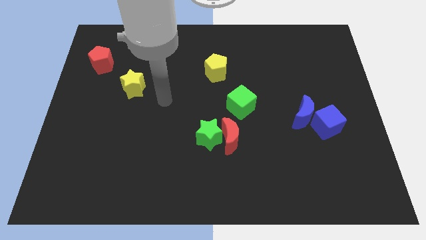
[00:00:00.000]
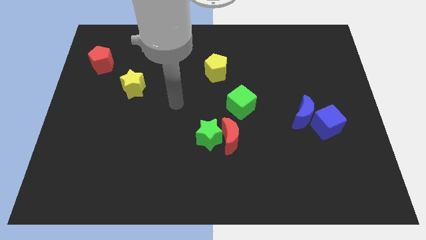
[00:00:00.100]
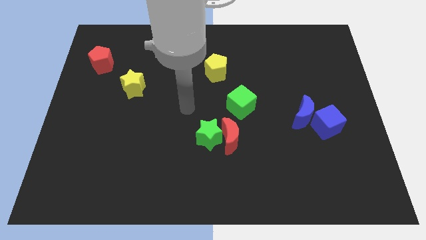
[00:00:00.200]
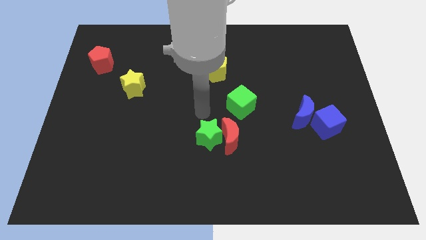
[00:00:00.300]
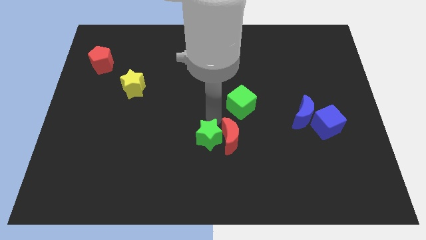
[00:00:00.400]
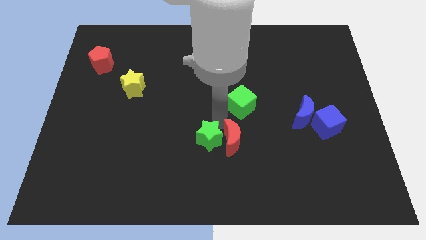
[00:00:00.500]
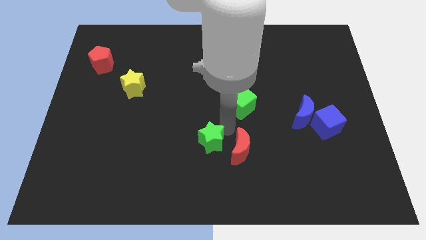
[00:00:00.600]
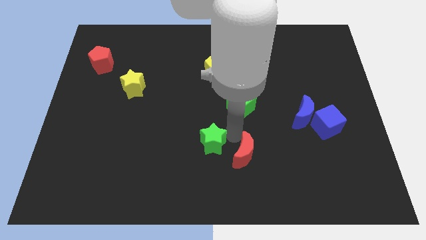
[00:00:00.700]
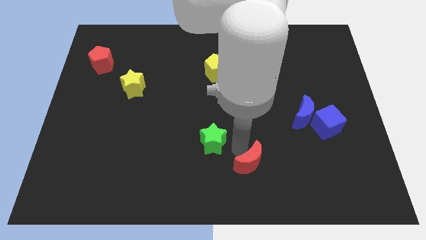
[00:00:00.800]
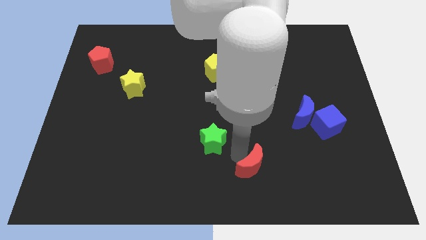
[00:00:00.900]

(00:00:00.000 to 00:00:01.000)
pull the green star apart from the red moon

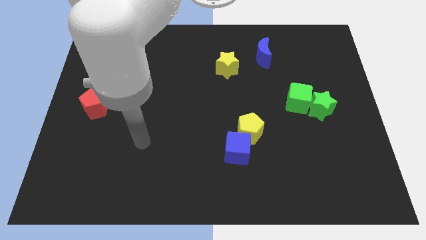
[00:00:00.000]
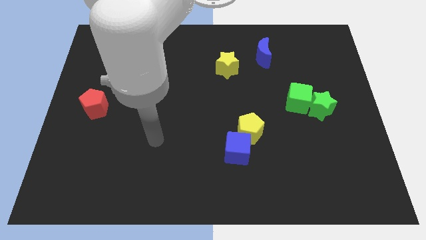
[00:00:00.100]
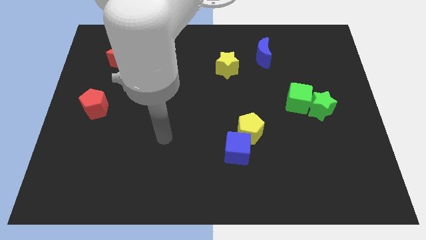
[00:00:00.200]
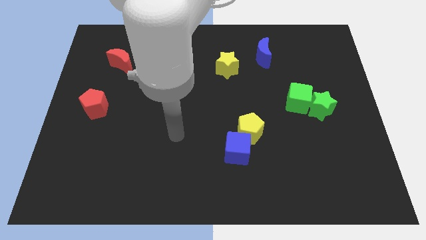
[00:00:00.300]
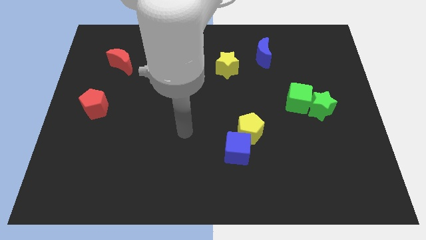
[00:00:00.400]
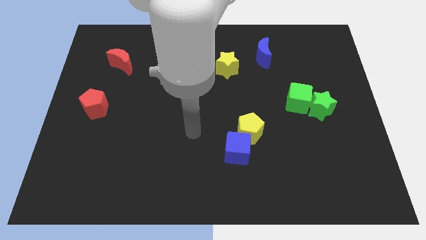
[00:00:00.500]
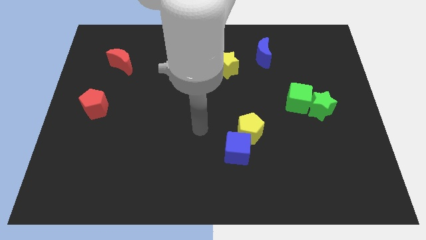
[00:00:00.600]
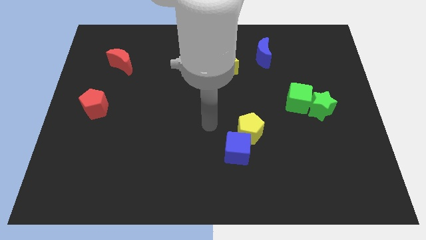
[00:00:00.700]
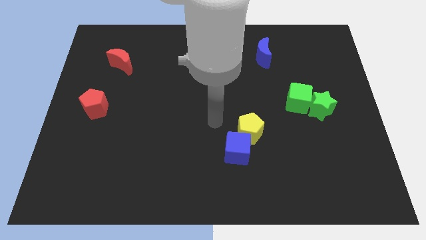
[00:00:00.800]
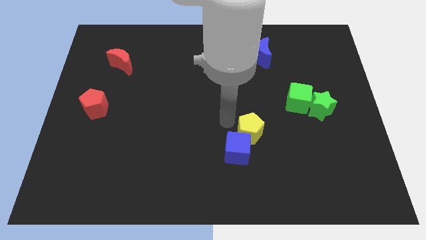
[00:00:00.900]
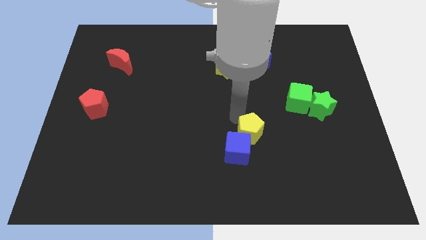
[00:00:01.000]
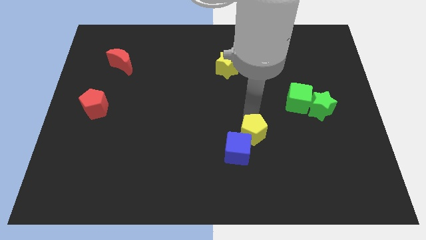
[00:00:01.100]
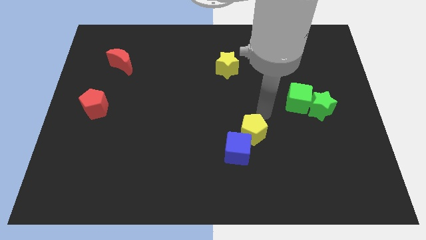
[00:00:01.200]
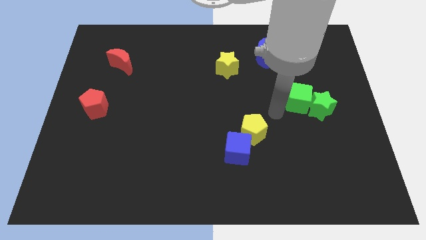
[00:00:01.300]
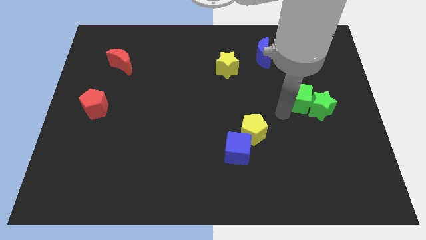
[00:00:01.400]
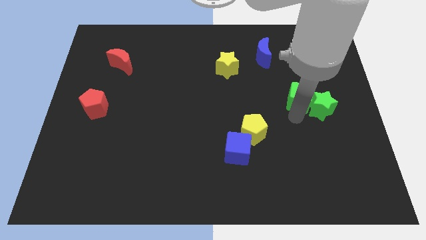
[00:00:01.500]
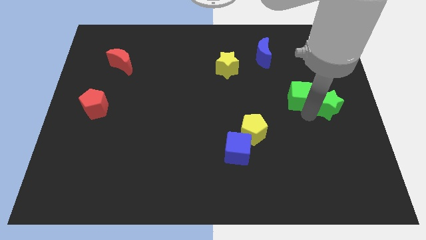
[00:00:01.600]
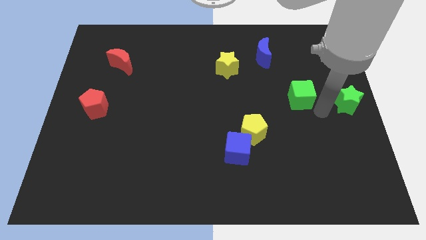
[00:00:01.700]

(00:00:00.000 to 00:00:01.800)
separate the green cube from the green star

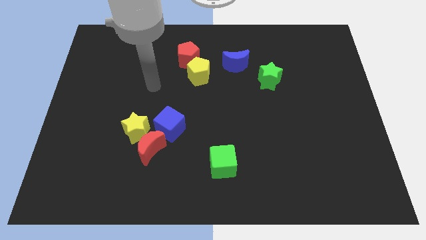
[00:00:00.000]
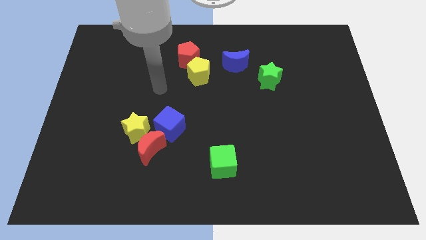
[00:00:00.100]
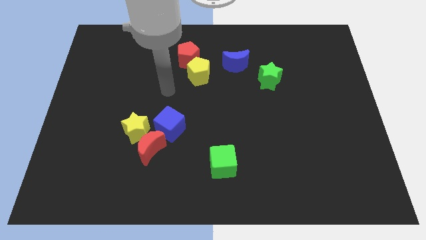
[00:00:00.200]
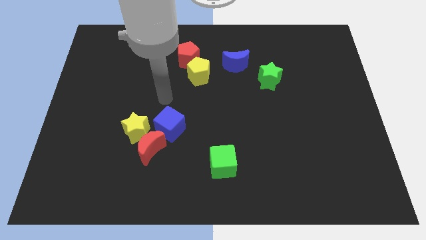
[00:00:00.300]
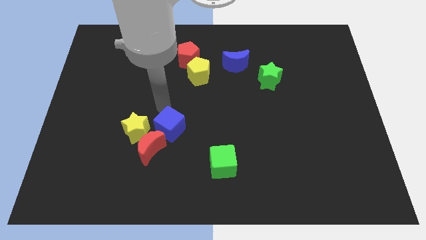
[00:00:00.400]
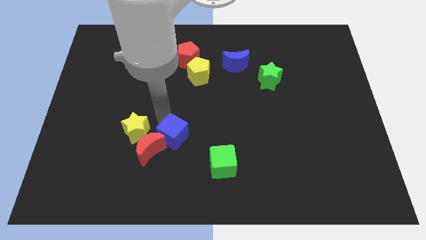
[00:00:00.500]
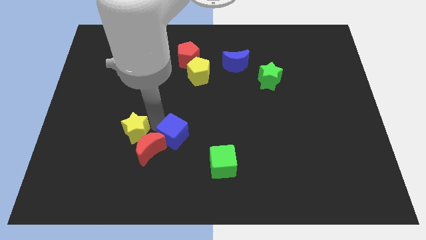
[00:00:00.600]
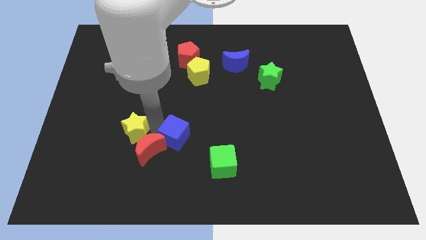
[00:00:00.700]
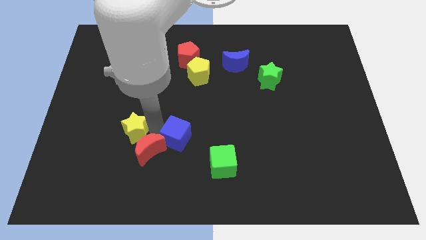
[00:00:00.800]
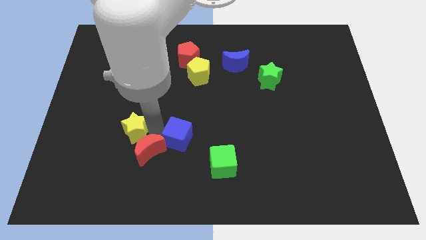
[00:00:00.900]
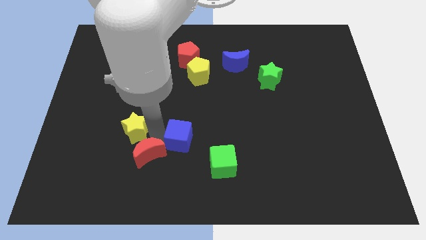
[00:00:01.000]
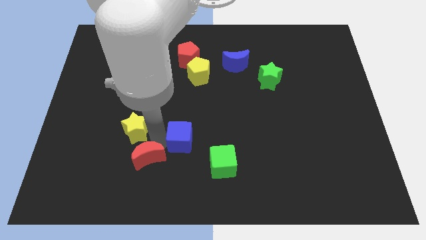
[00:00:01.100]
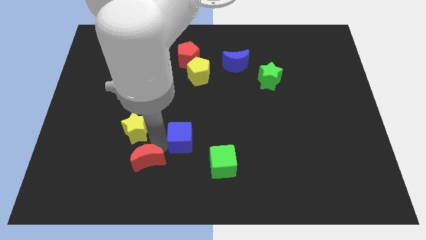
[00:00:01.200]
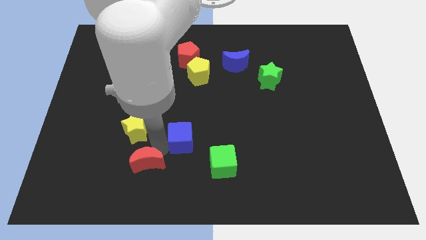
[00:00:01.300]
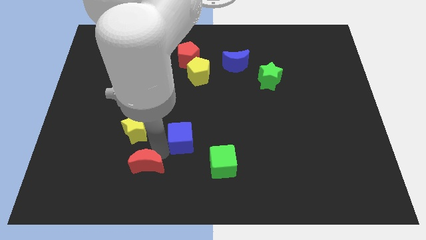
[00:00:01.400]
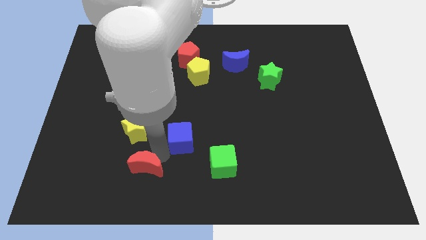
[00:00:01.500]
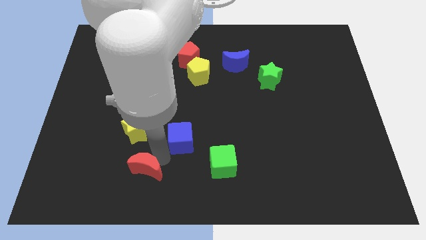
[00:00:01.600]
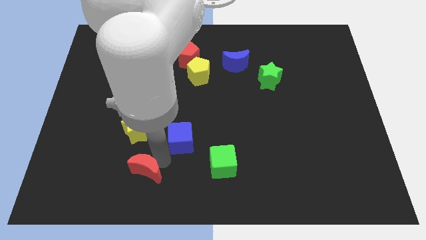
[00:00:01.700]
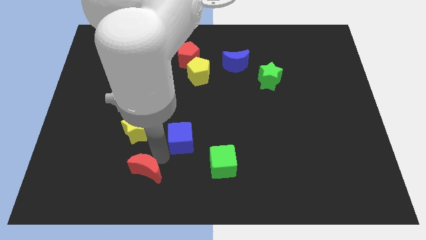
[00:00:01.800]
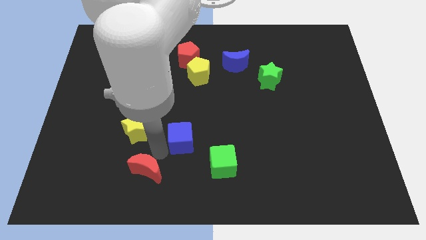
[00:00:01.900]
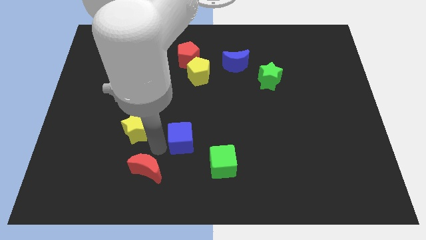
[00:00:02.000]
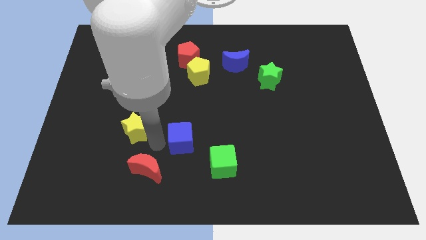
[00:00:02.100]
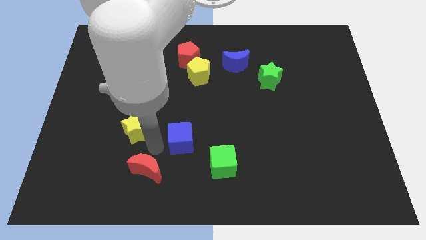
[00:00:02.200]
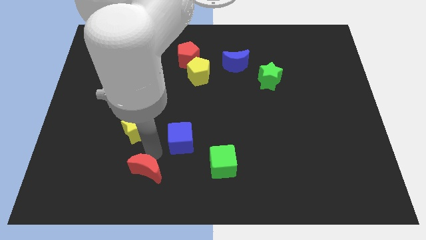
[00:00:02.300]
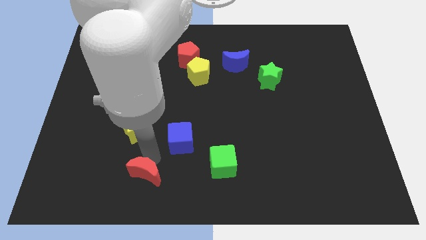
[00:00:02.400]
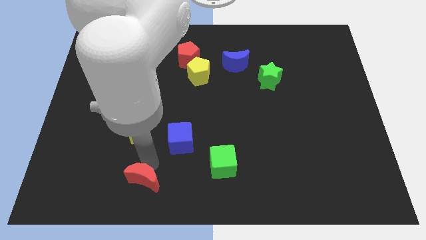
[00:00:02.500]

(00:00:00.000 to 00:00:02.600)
pull the red moon apart from the yellow star and blue cube

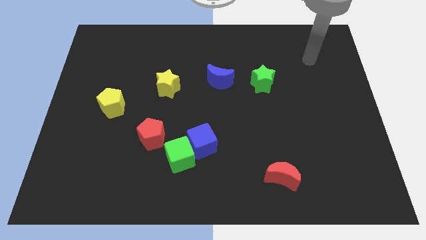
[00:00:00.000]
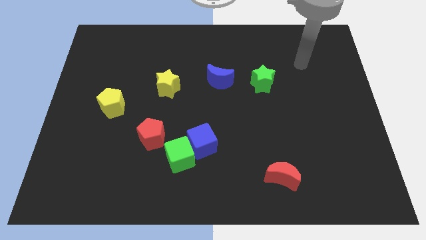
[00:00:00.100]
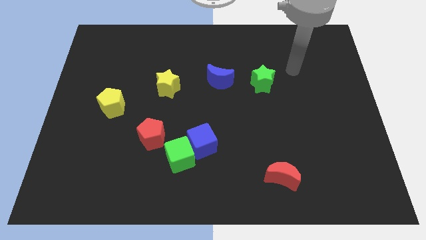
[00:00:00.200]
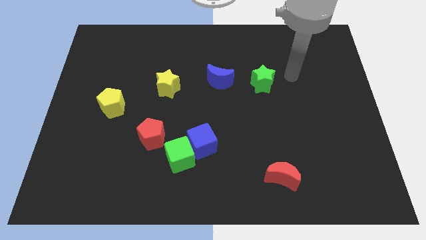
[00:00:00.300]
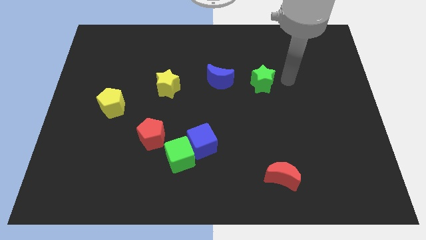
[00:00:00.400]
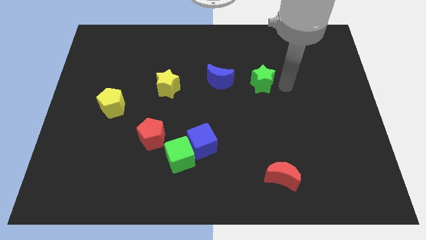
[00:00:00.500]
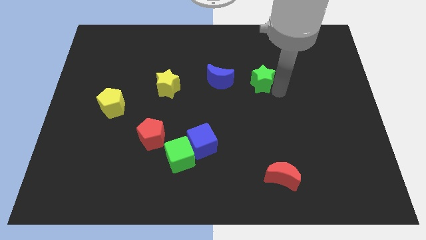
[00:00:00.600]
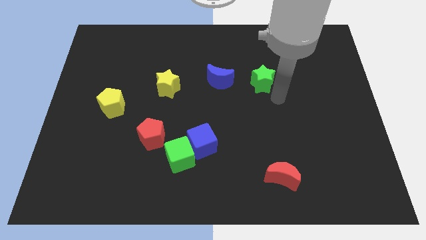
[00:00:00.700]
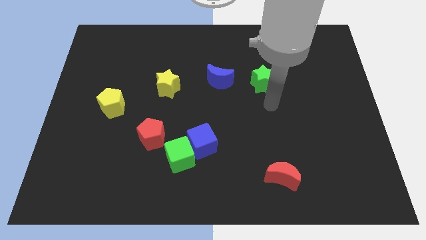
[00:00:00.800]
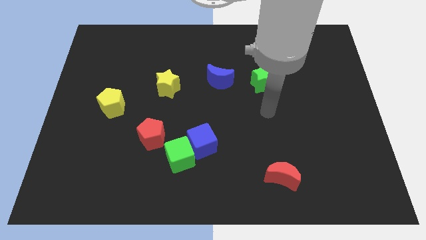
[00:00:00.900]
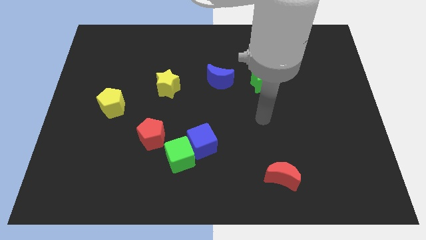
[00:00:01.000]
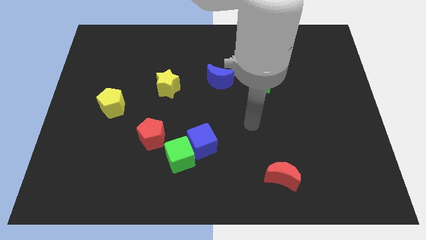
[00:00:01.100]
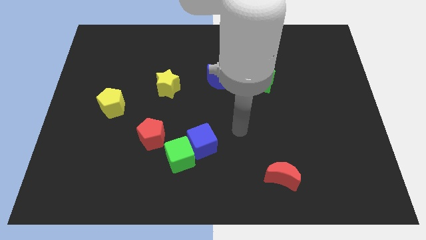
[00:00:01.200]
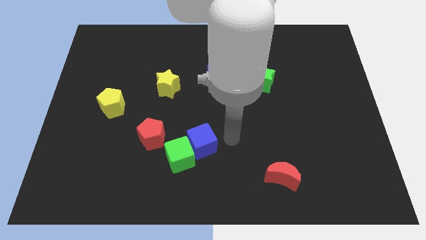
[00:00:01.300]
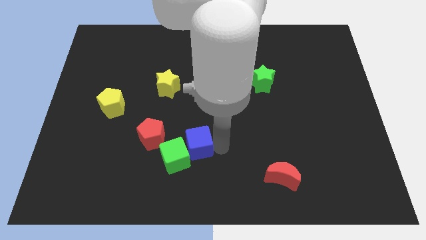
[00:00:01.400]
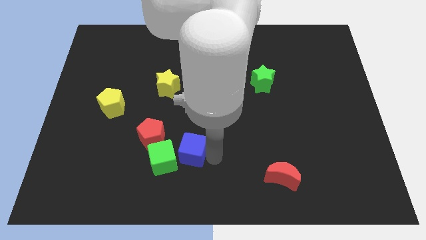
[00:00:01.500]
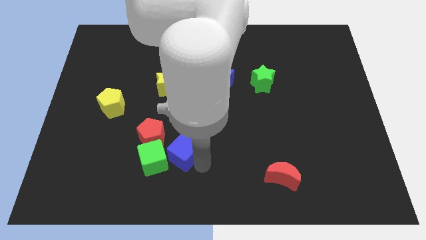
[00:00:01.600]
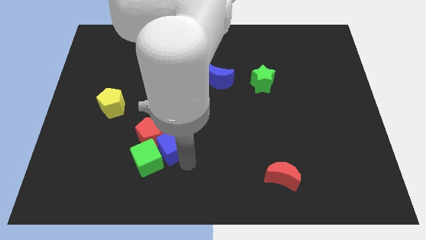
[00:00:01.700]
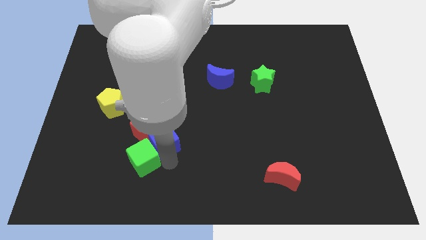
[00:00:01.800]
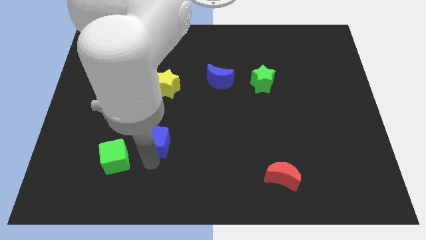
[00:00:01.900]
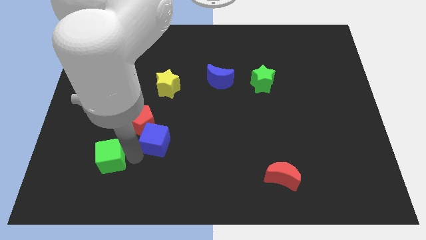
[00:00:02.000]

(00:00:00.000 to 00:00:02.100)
separate the blue cube from the green cube

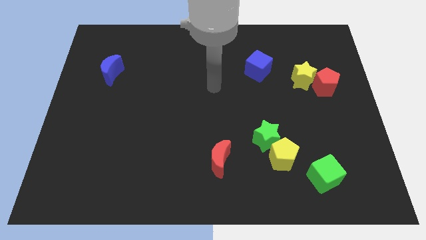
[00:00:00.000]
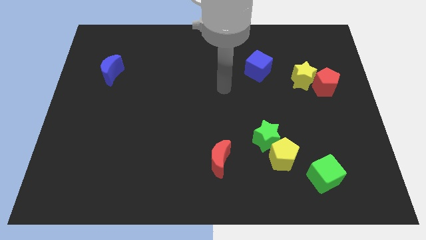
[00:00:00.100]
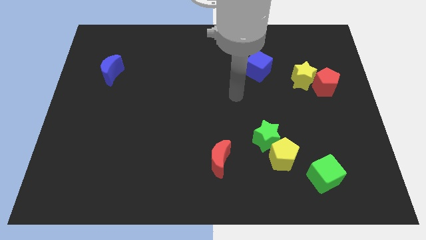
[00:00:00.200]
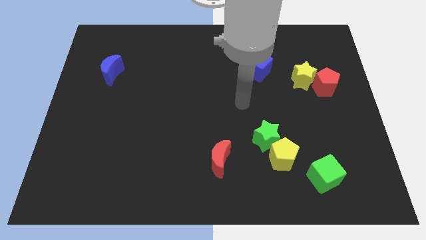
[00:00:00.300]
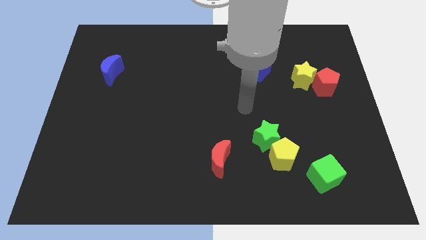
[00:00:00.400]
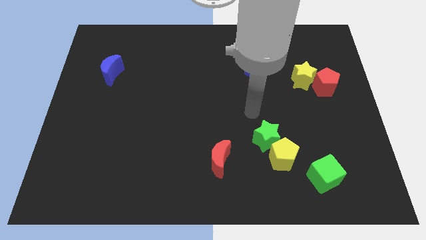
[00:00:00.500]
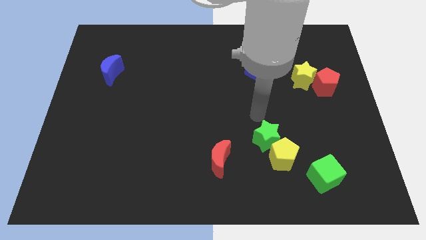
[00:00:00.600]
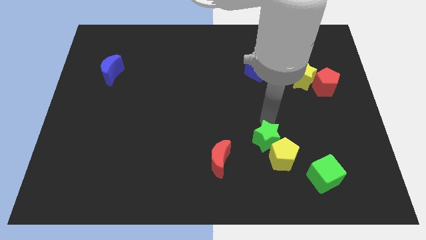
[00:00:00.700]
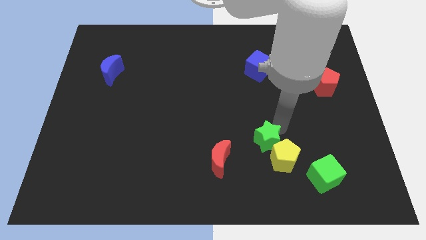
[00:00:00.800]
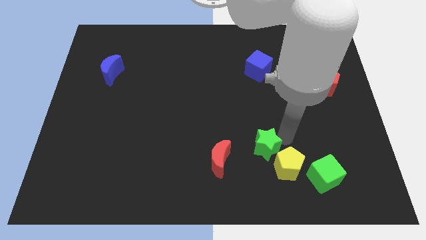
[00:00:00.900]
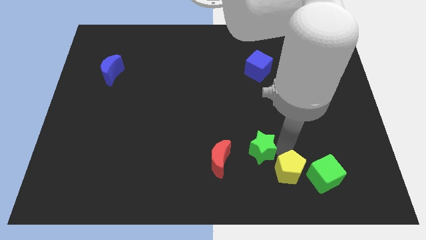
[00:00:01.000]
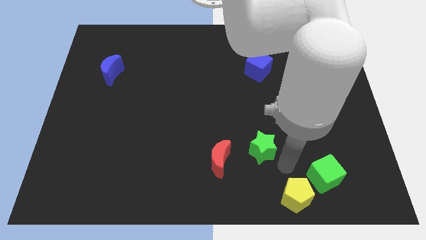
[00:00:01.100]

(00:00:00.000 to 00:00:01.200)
move the green star away from the yellow pentagon

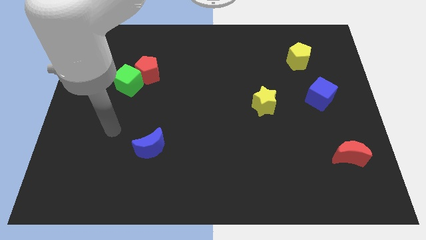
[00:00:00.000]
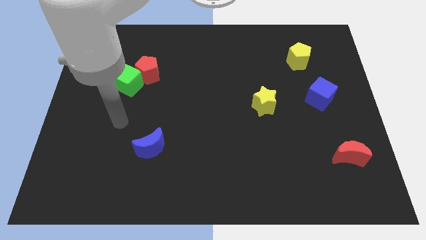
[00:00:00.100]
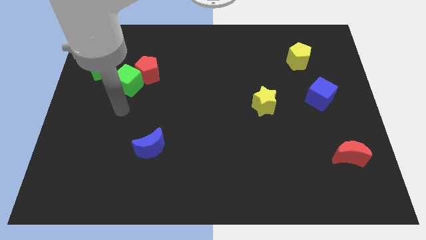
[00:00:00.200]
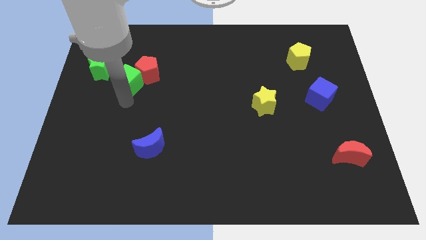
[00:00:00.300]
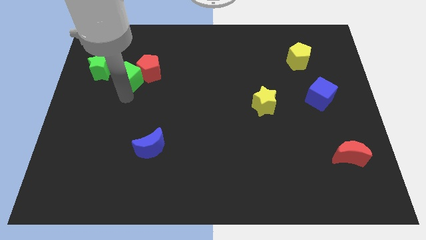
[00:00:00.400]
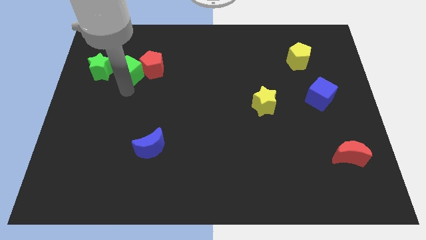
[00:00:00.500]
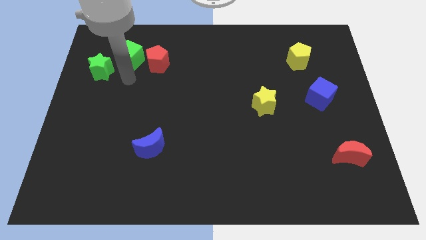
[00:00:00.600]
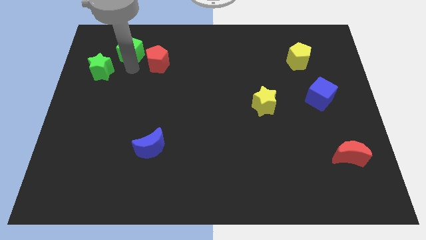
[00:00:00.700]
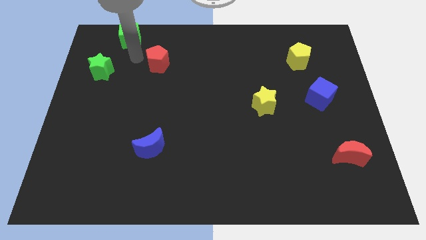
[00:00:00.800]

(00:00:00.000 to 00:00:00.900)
move the red pentagon away from the green cube
